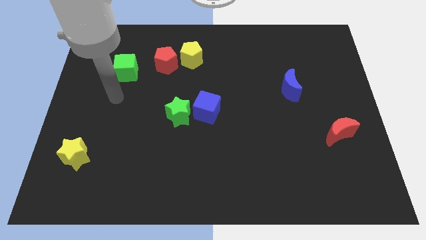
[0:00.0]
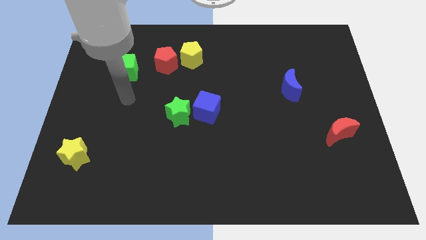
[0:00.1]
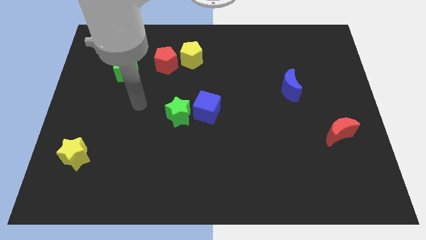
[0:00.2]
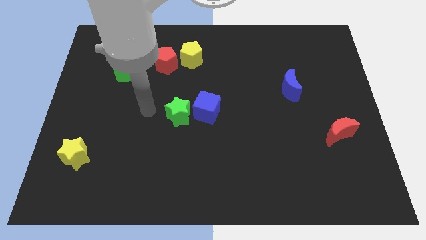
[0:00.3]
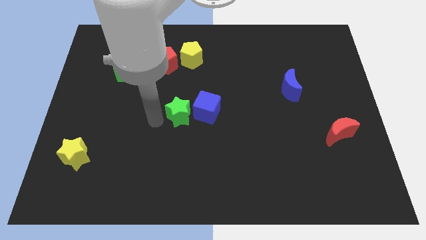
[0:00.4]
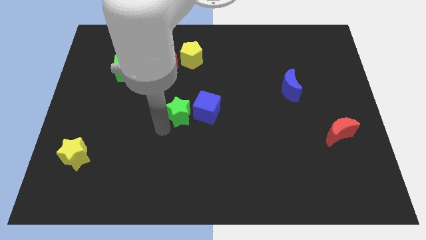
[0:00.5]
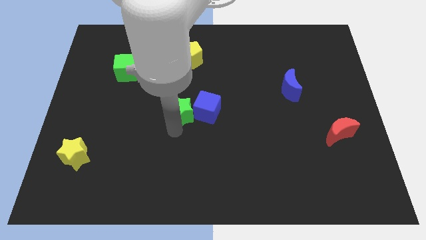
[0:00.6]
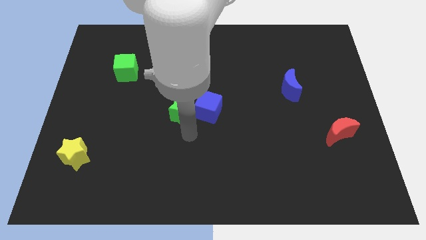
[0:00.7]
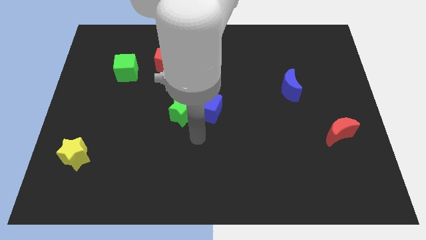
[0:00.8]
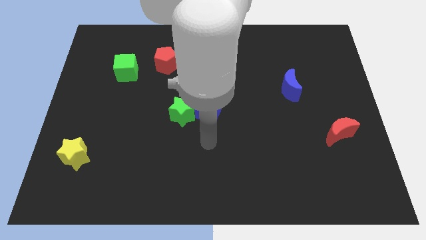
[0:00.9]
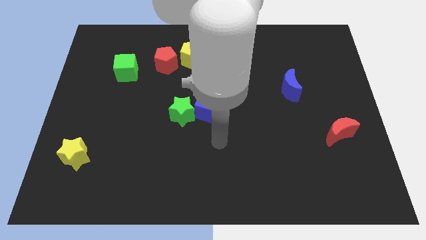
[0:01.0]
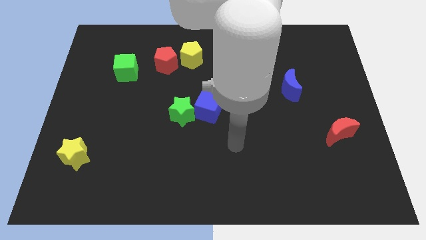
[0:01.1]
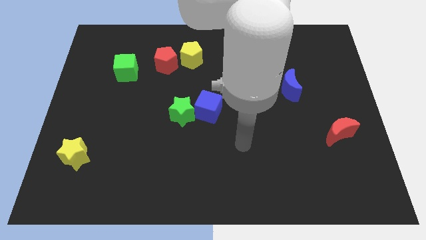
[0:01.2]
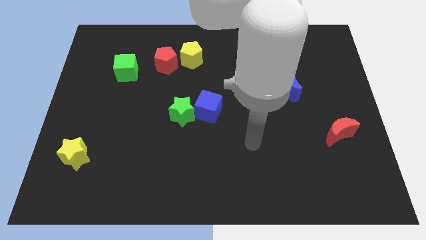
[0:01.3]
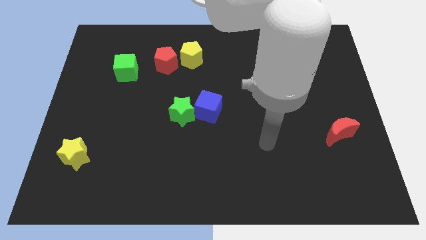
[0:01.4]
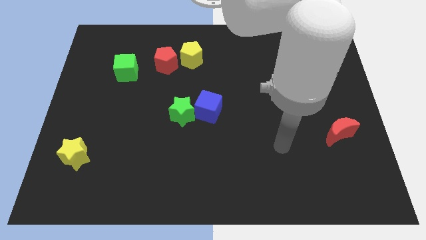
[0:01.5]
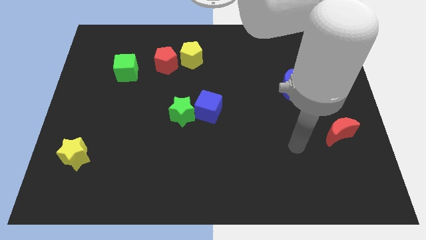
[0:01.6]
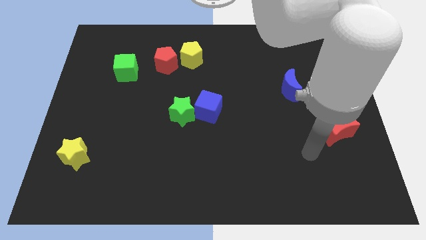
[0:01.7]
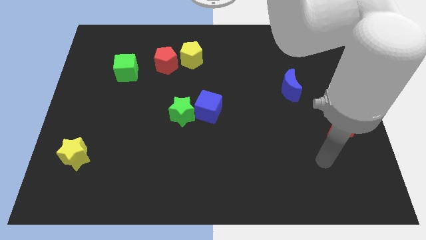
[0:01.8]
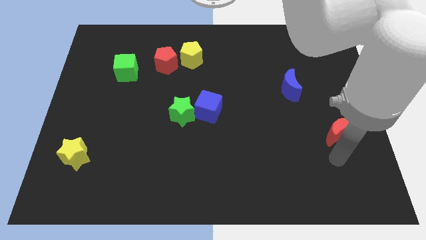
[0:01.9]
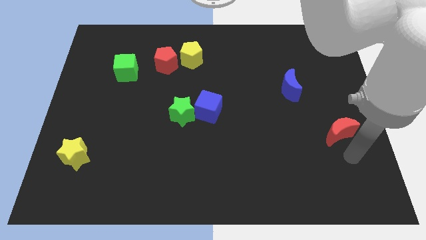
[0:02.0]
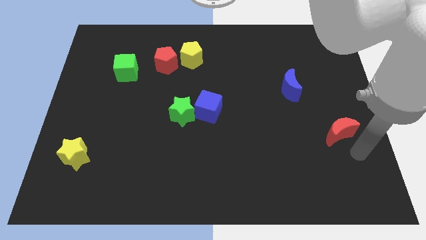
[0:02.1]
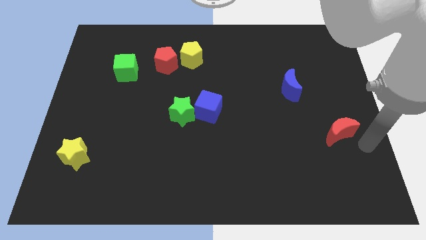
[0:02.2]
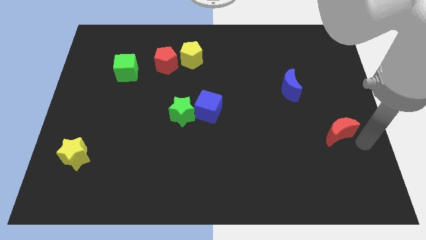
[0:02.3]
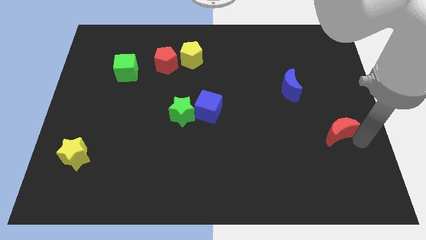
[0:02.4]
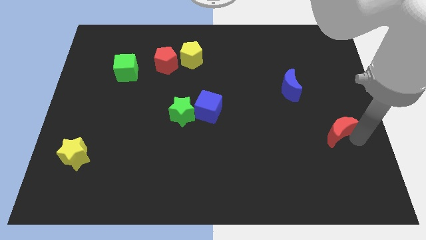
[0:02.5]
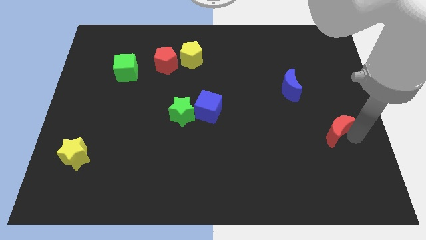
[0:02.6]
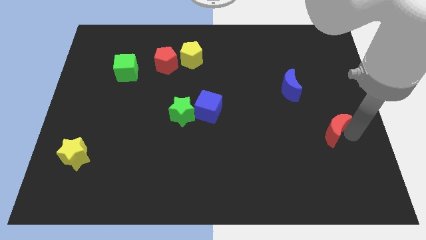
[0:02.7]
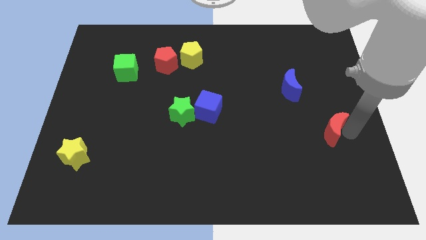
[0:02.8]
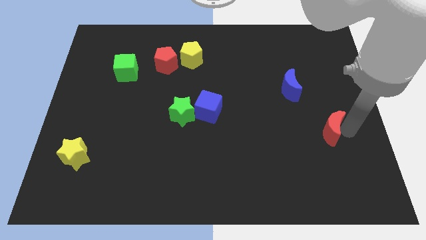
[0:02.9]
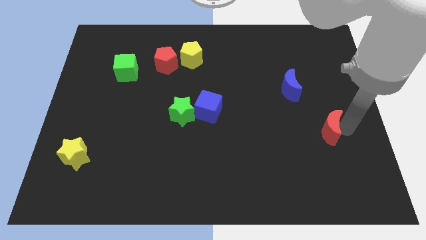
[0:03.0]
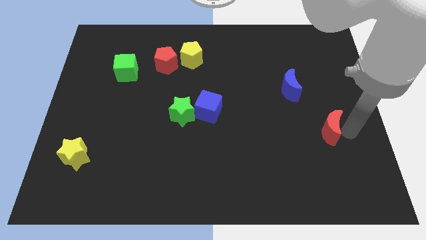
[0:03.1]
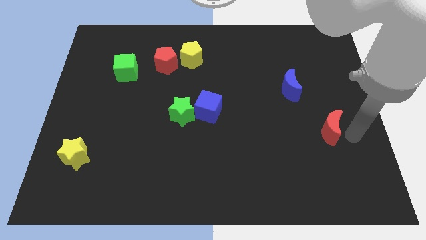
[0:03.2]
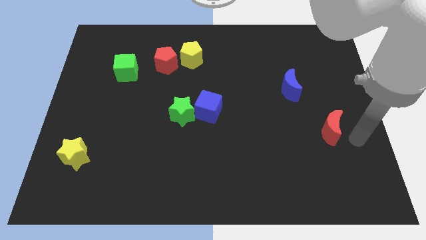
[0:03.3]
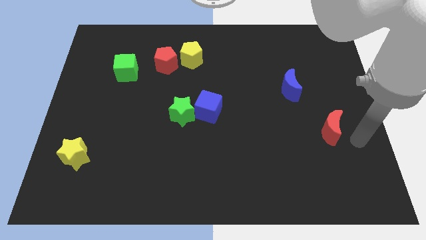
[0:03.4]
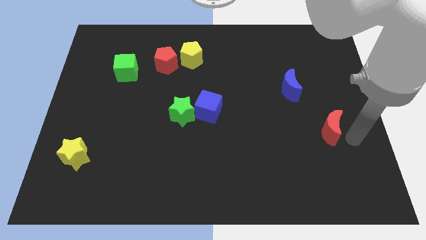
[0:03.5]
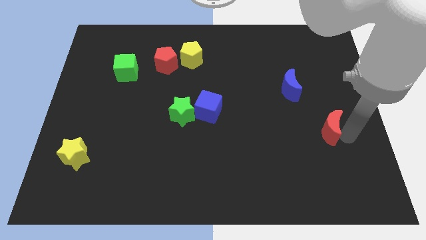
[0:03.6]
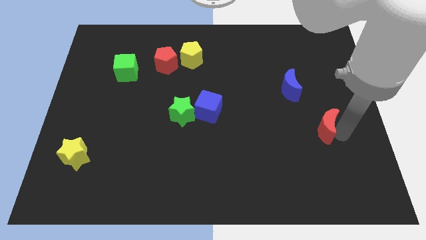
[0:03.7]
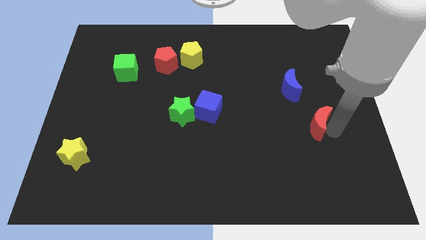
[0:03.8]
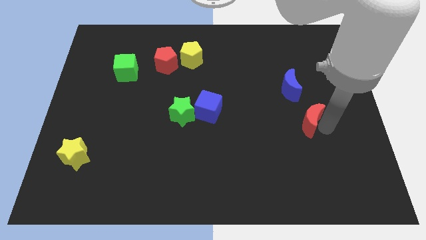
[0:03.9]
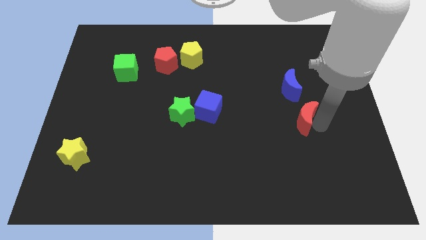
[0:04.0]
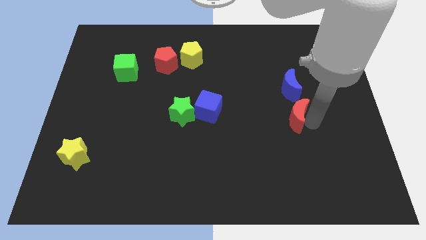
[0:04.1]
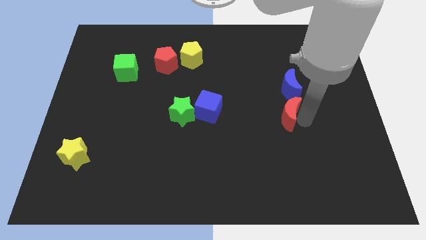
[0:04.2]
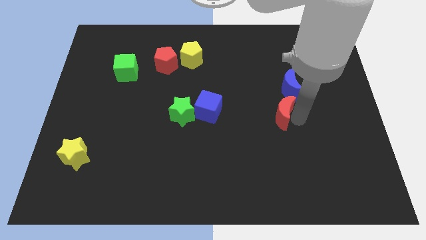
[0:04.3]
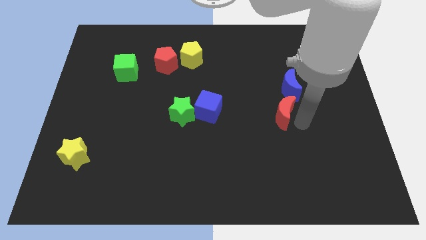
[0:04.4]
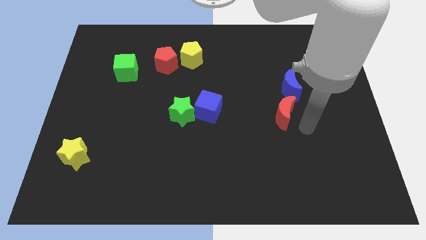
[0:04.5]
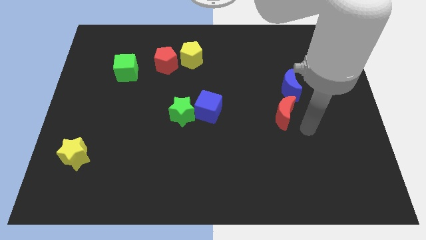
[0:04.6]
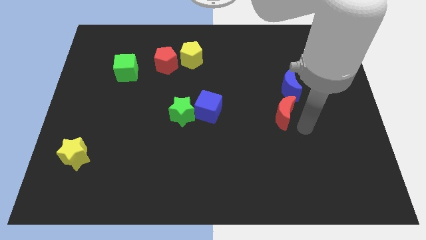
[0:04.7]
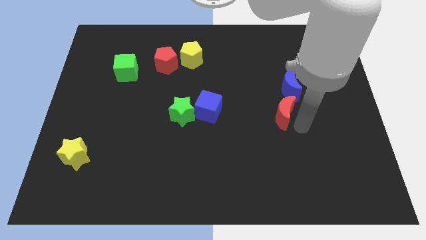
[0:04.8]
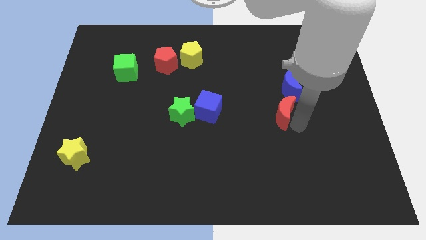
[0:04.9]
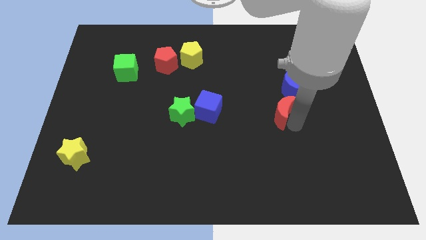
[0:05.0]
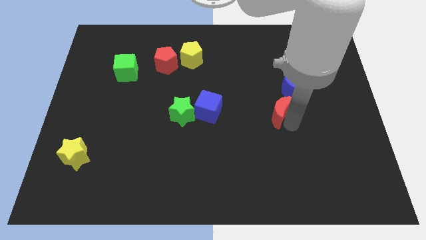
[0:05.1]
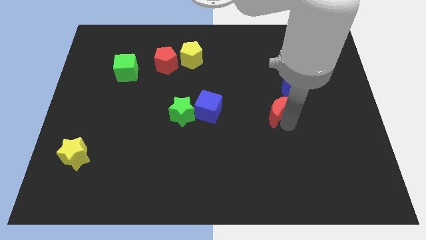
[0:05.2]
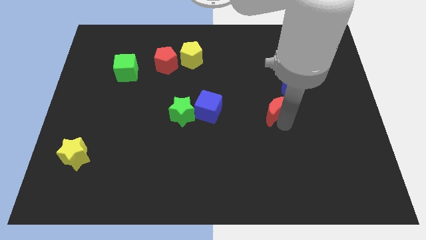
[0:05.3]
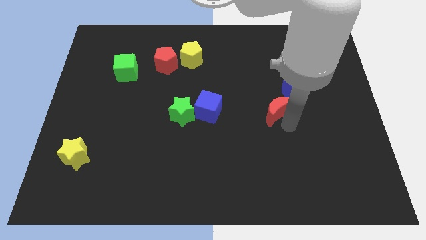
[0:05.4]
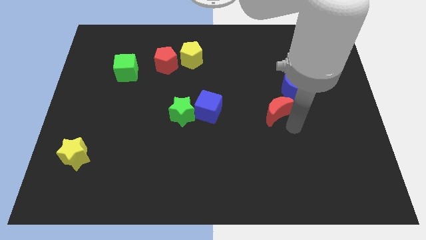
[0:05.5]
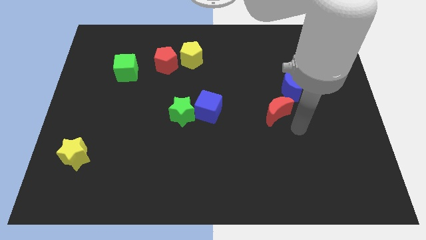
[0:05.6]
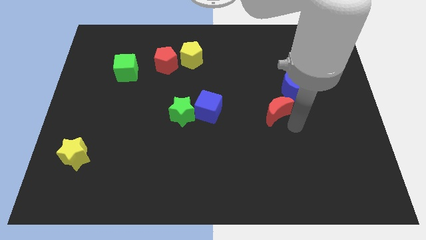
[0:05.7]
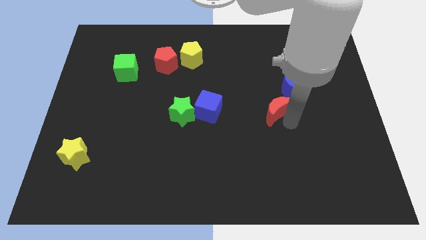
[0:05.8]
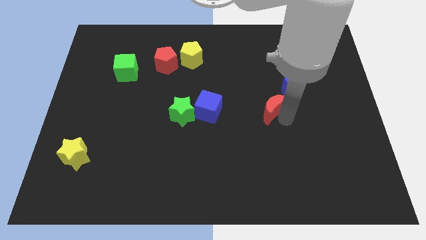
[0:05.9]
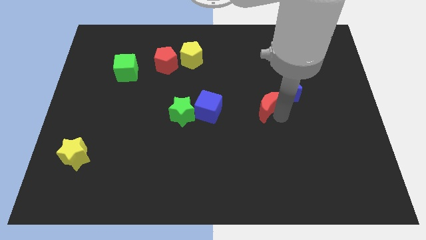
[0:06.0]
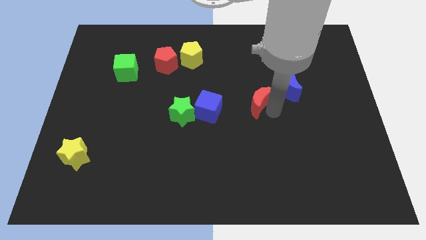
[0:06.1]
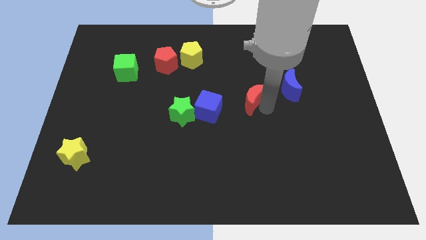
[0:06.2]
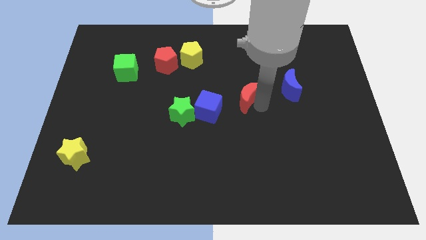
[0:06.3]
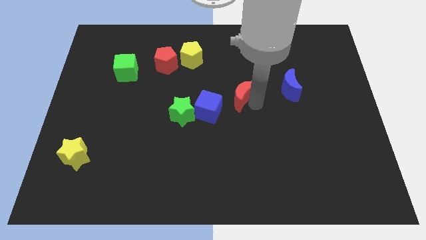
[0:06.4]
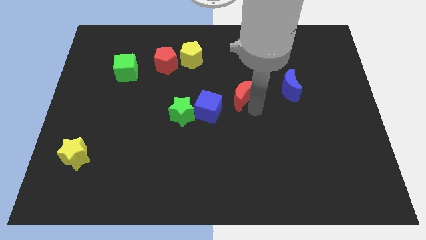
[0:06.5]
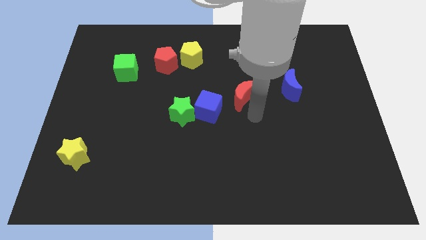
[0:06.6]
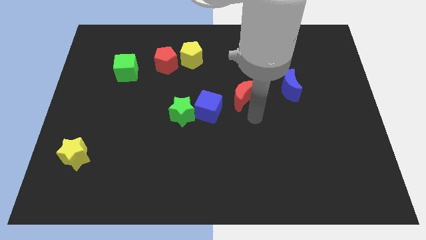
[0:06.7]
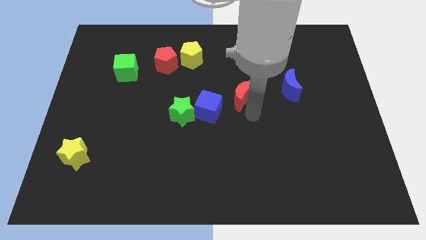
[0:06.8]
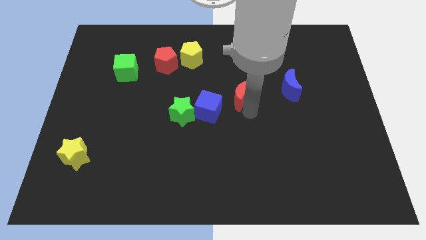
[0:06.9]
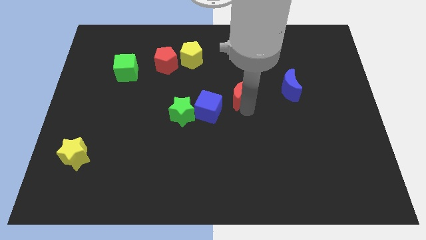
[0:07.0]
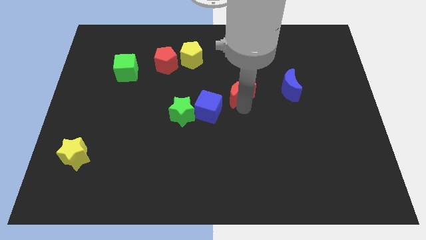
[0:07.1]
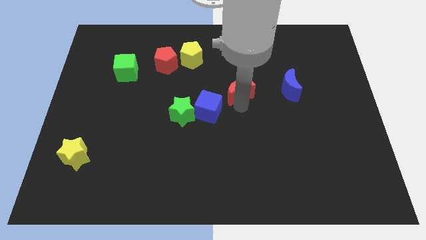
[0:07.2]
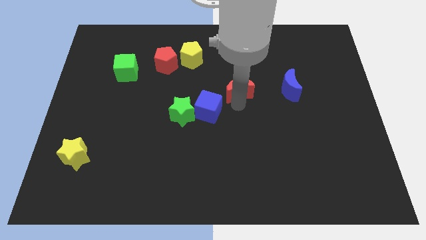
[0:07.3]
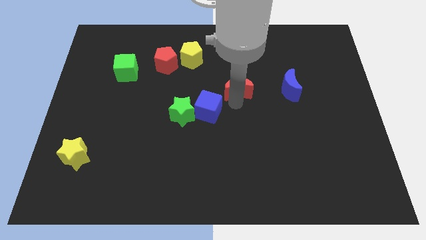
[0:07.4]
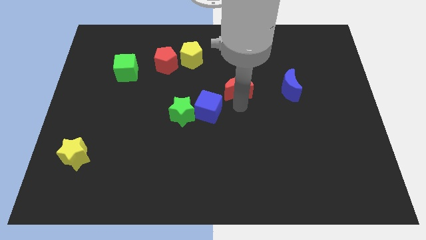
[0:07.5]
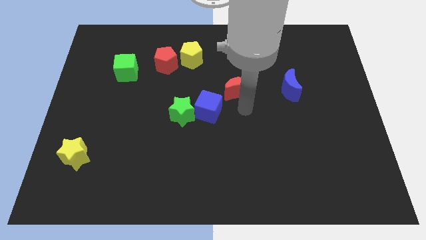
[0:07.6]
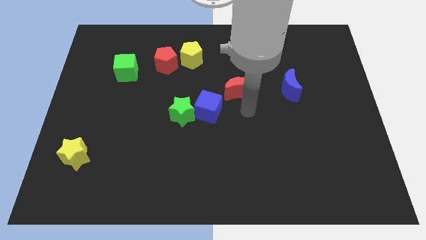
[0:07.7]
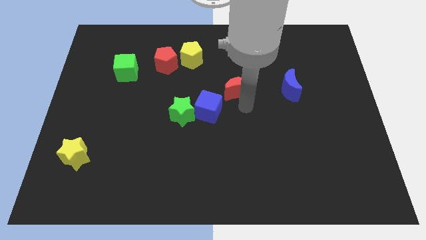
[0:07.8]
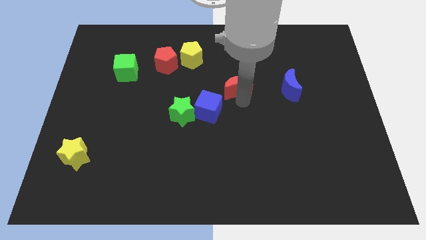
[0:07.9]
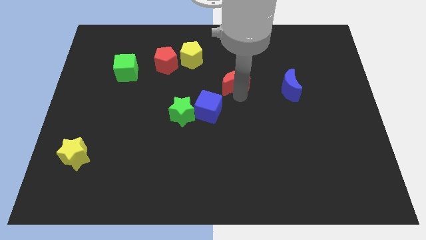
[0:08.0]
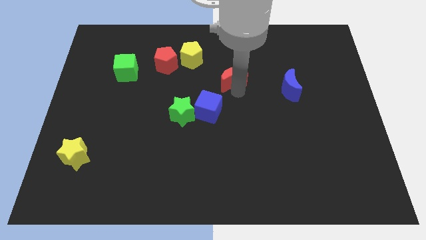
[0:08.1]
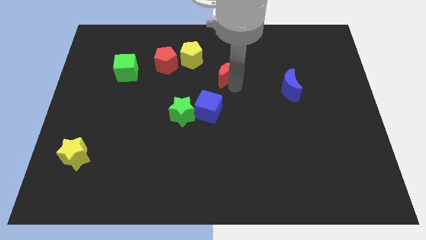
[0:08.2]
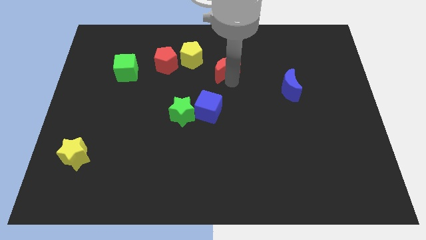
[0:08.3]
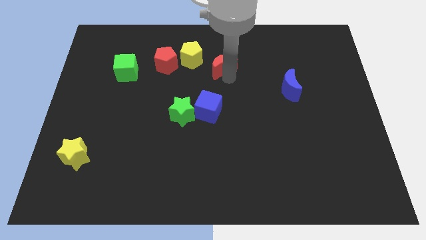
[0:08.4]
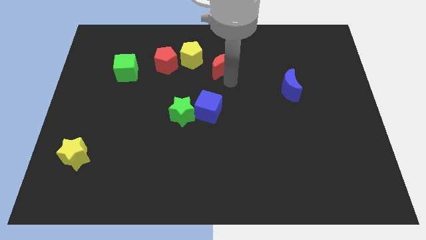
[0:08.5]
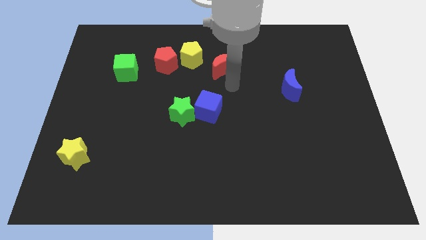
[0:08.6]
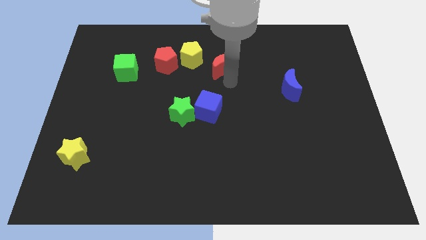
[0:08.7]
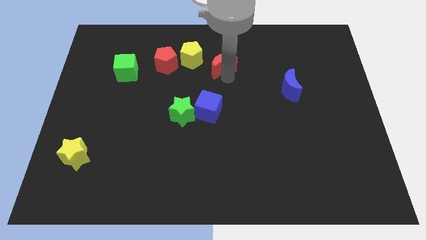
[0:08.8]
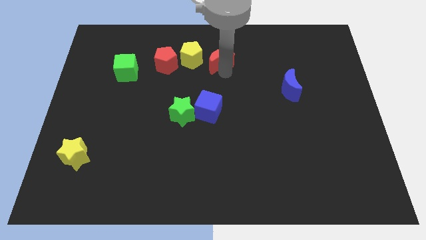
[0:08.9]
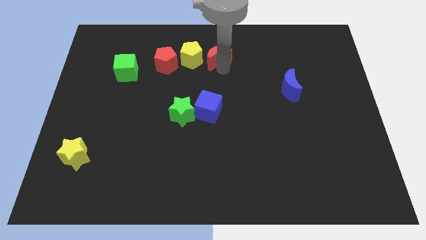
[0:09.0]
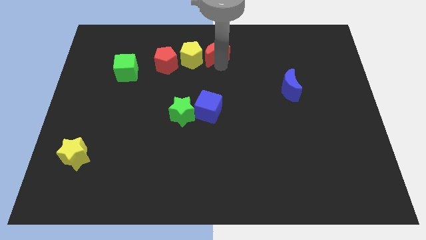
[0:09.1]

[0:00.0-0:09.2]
put the red moon to the top
